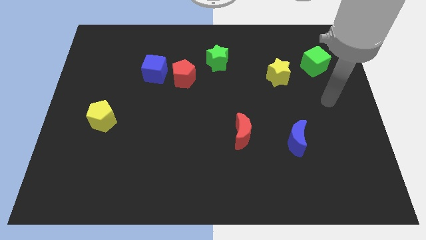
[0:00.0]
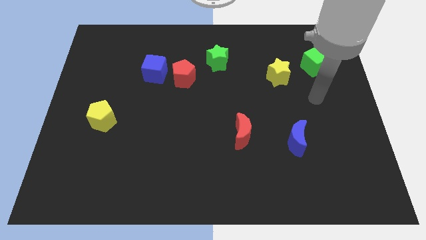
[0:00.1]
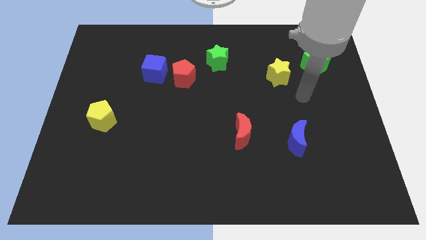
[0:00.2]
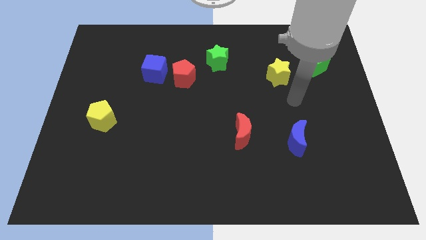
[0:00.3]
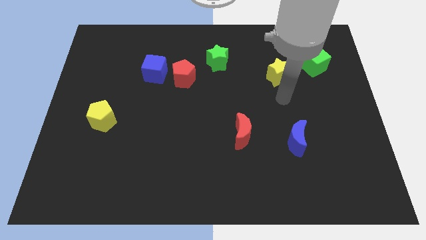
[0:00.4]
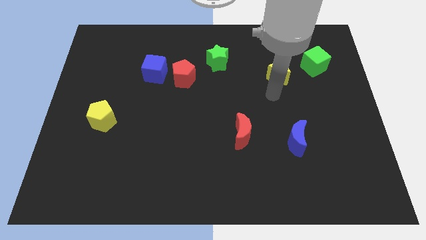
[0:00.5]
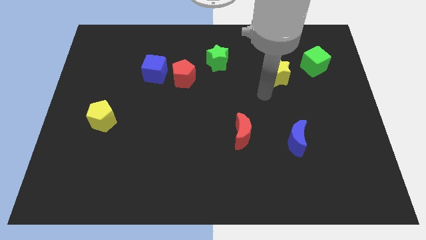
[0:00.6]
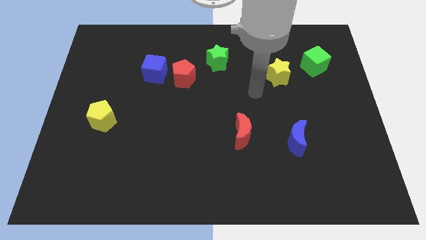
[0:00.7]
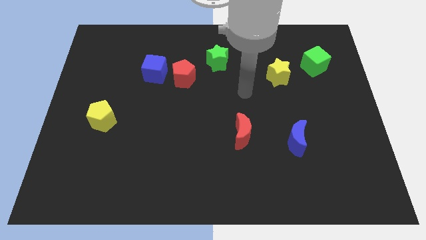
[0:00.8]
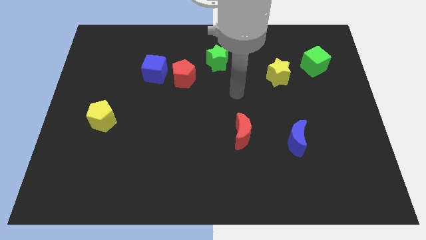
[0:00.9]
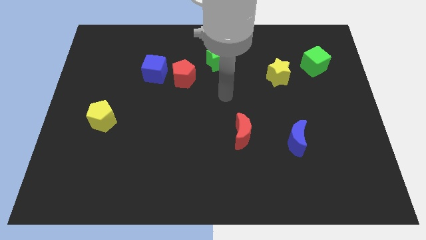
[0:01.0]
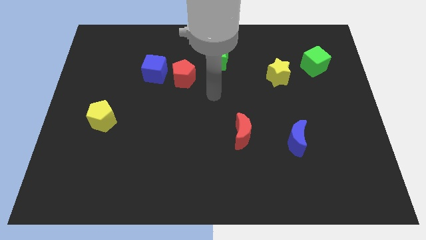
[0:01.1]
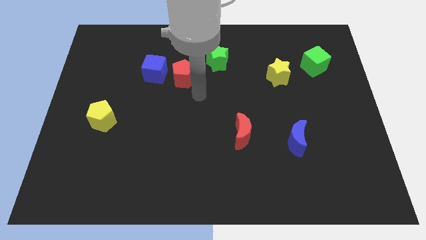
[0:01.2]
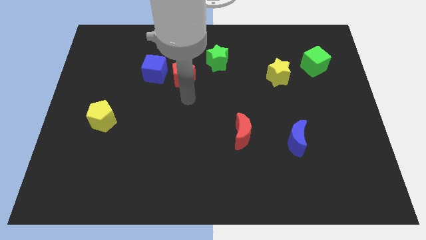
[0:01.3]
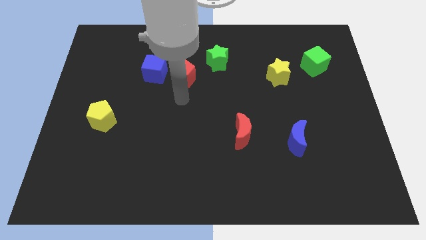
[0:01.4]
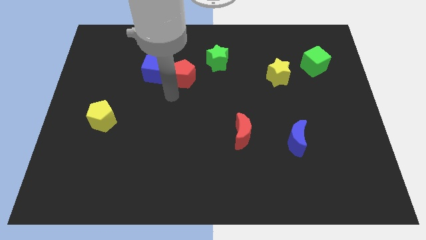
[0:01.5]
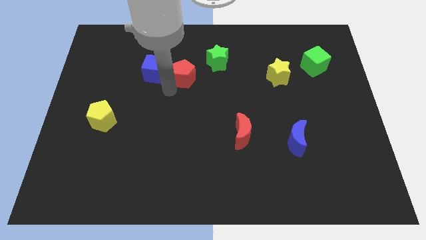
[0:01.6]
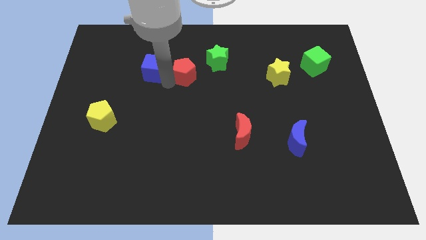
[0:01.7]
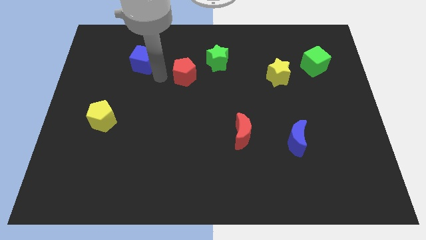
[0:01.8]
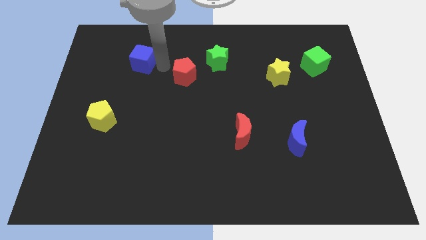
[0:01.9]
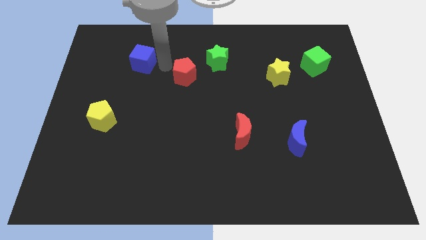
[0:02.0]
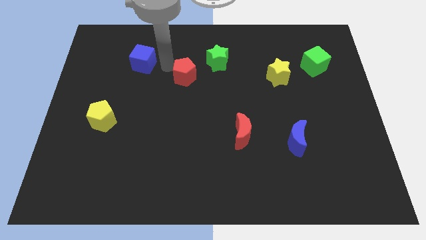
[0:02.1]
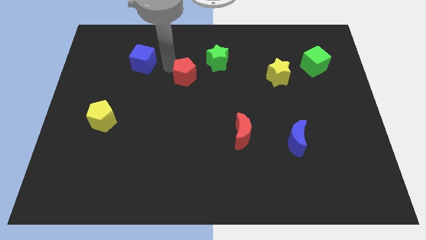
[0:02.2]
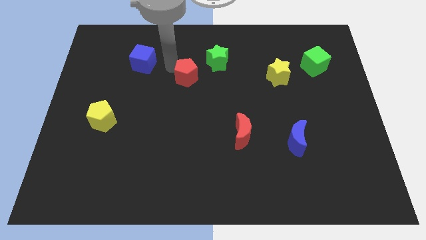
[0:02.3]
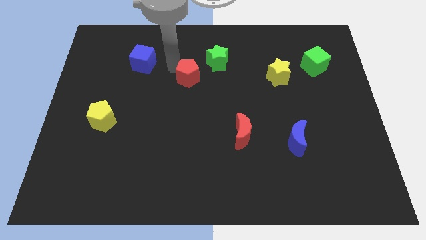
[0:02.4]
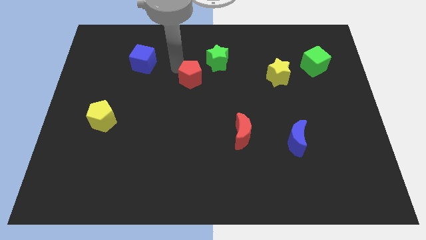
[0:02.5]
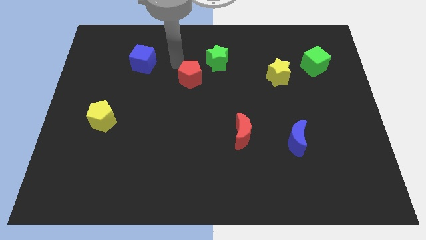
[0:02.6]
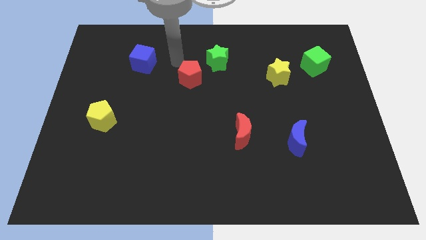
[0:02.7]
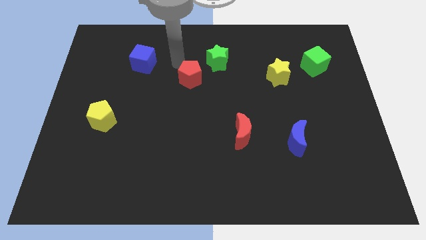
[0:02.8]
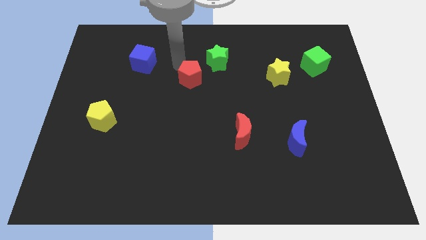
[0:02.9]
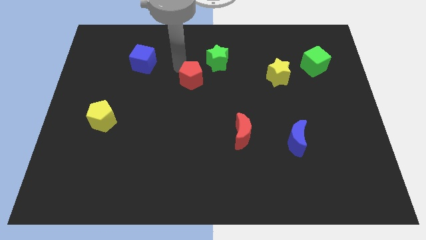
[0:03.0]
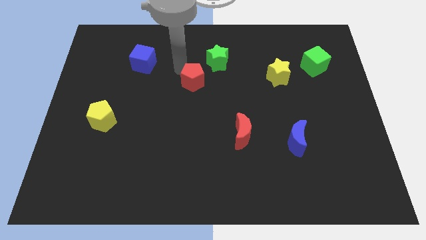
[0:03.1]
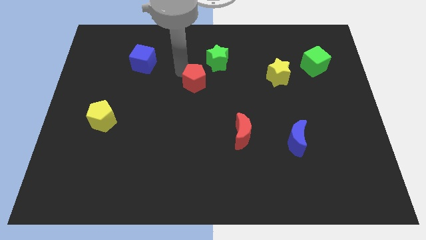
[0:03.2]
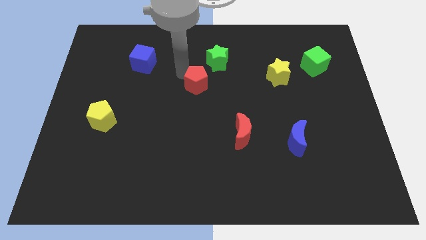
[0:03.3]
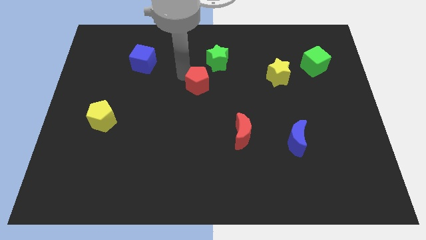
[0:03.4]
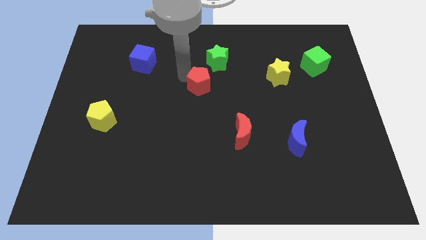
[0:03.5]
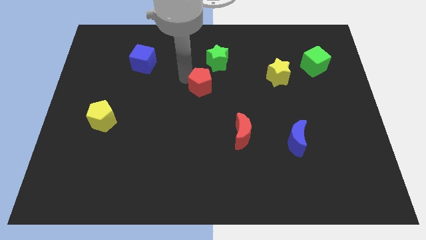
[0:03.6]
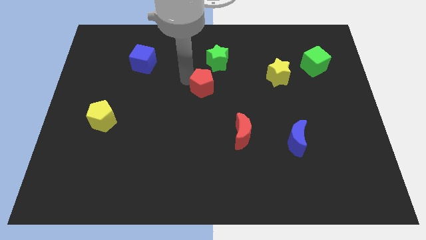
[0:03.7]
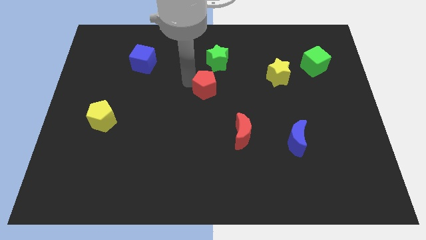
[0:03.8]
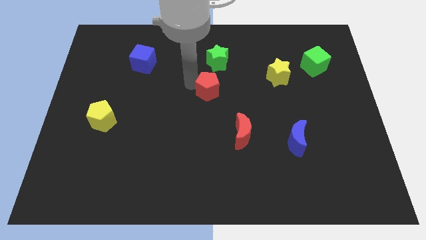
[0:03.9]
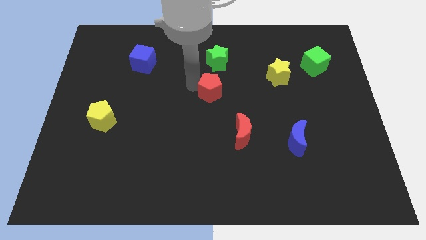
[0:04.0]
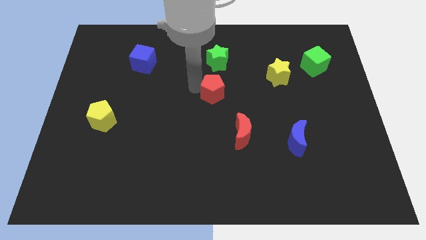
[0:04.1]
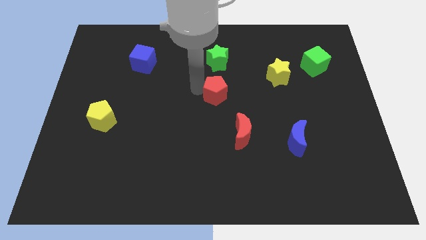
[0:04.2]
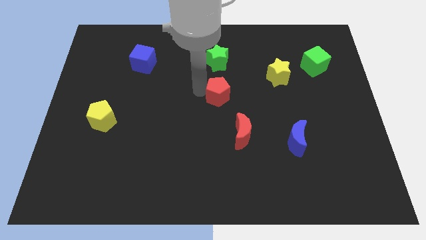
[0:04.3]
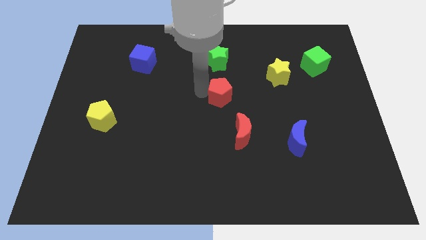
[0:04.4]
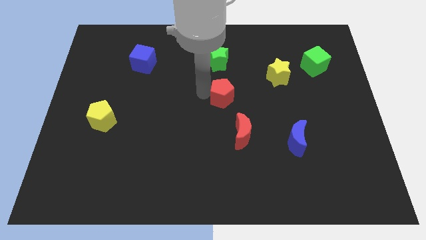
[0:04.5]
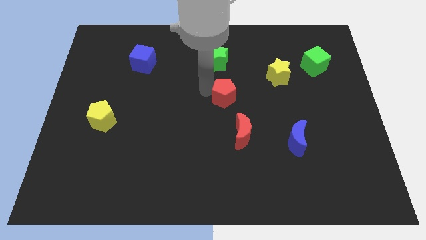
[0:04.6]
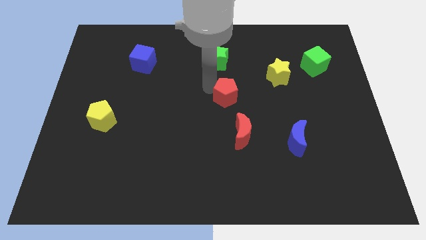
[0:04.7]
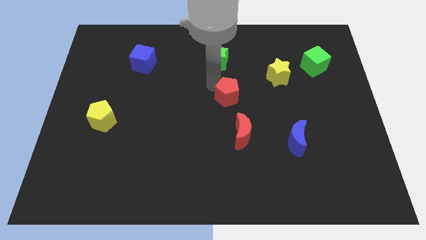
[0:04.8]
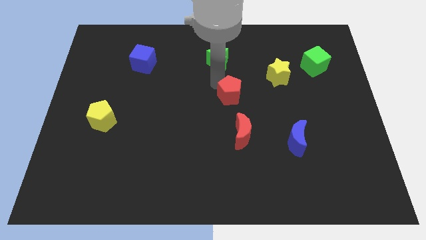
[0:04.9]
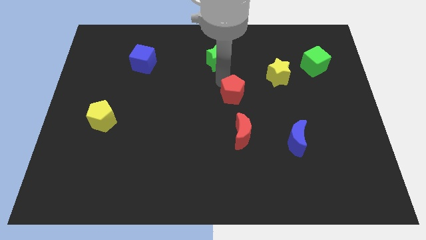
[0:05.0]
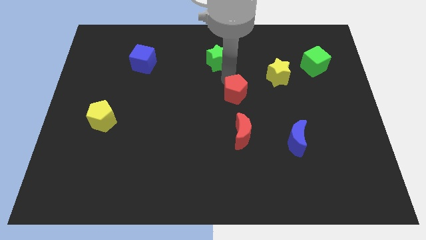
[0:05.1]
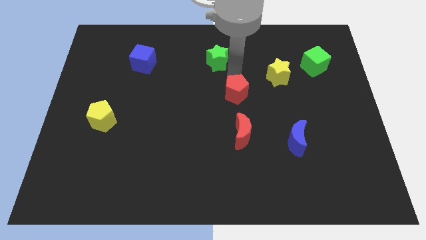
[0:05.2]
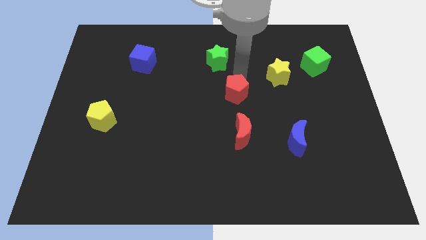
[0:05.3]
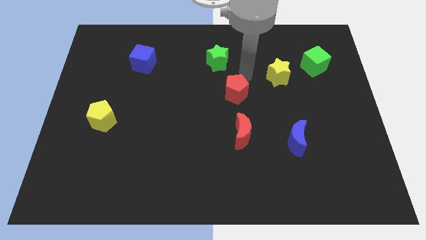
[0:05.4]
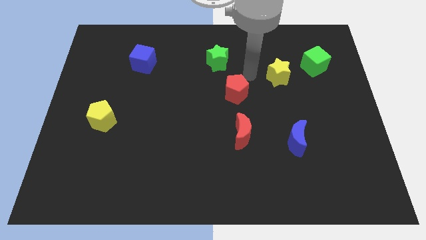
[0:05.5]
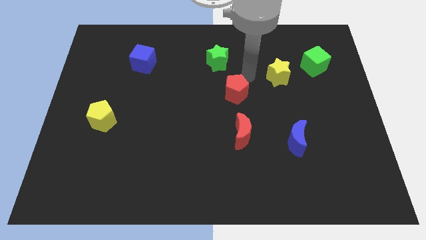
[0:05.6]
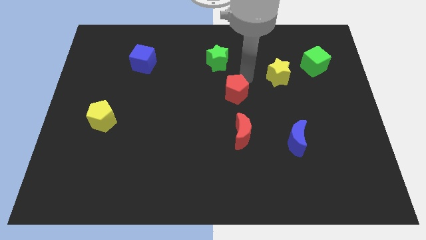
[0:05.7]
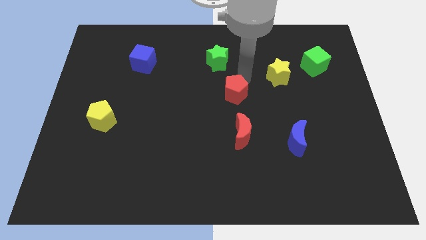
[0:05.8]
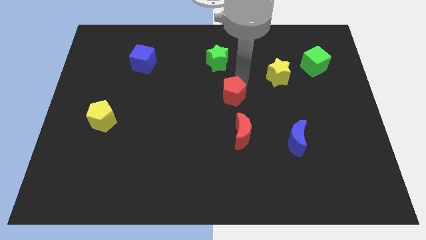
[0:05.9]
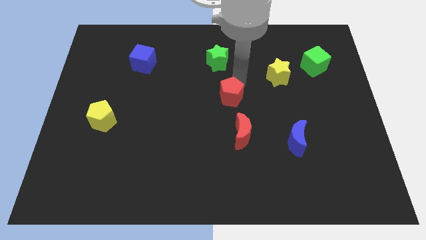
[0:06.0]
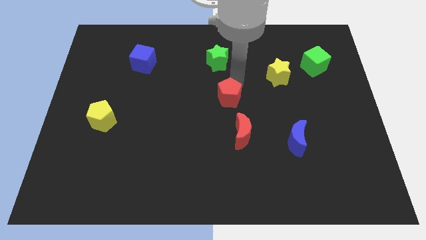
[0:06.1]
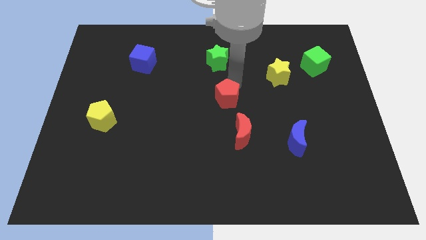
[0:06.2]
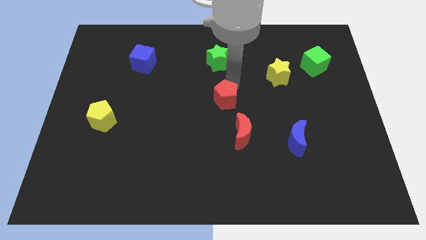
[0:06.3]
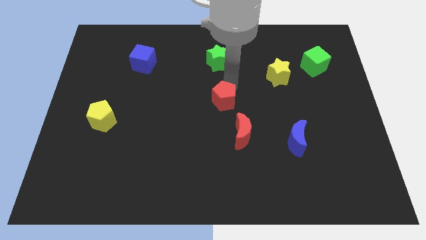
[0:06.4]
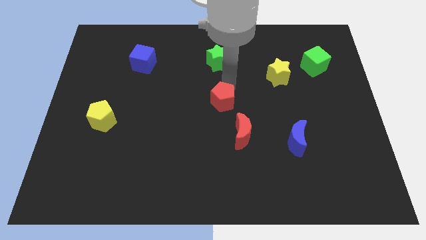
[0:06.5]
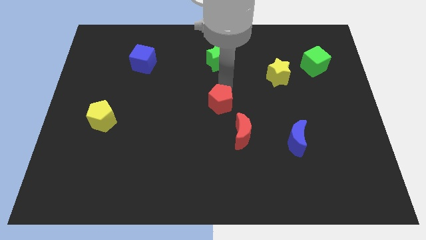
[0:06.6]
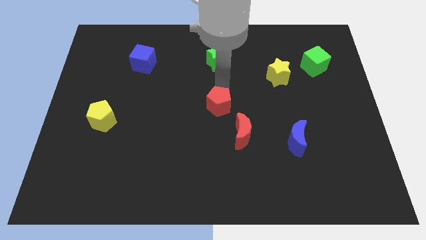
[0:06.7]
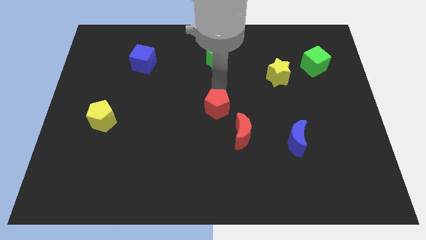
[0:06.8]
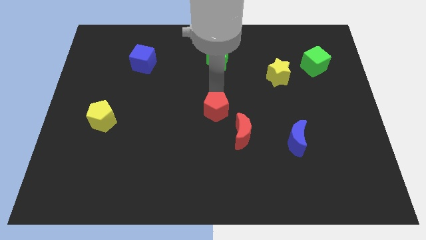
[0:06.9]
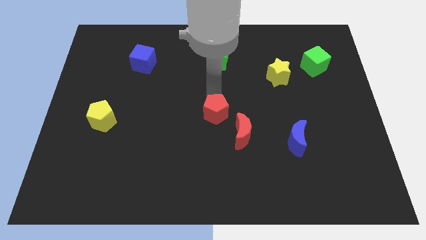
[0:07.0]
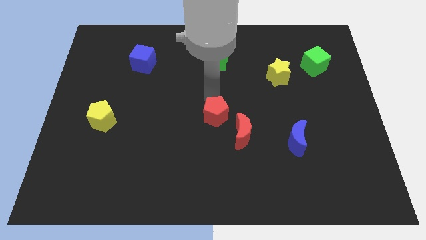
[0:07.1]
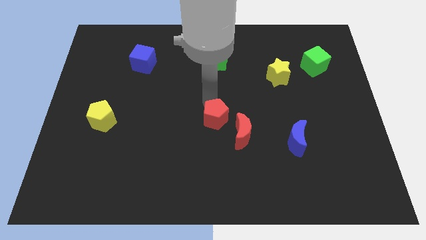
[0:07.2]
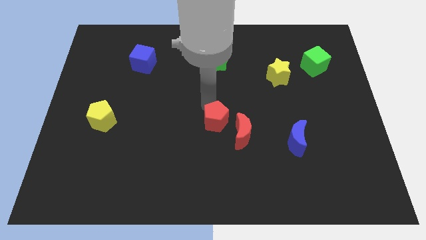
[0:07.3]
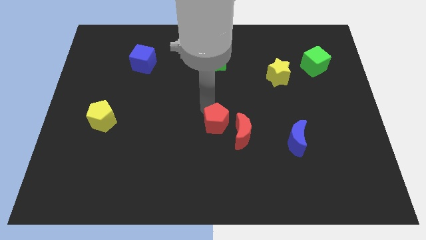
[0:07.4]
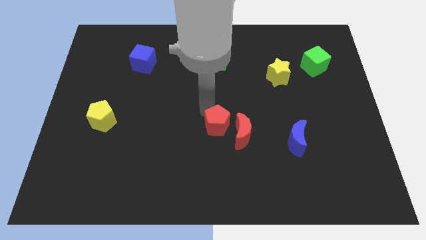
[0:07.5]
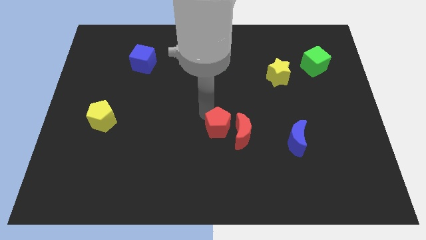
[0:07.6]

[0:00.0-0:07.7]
put the red pentagon to the red moon

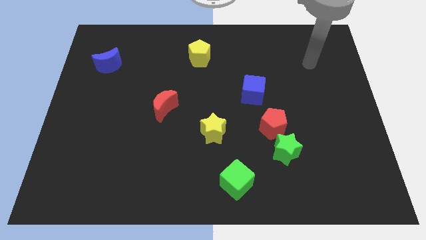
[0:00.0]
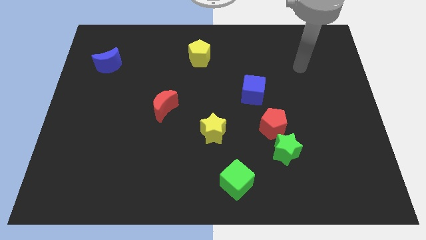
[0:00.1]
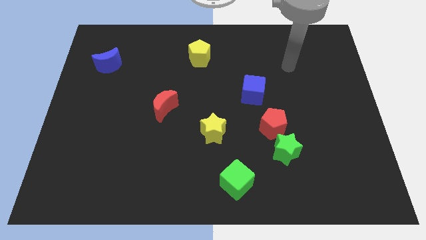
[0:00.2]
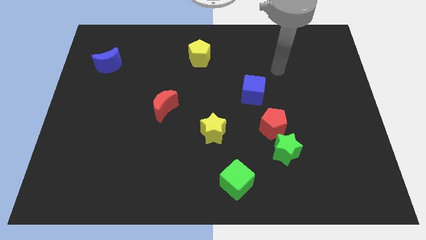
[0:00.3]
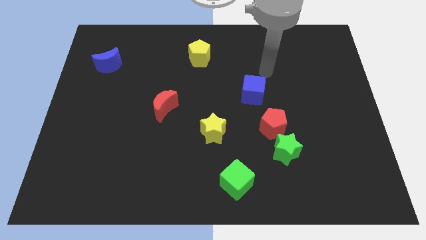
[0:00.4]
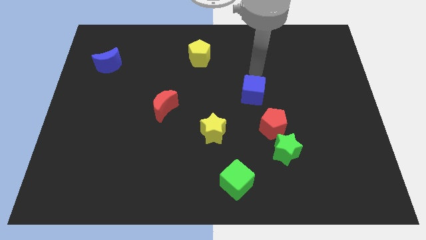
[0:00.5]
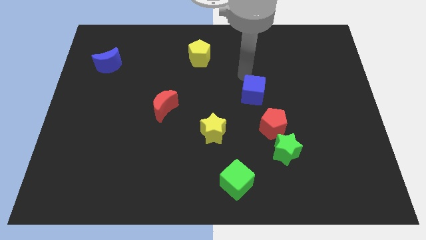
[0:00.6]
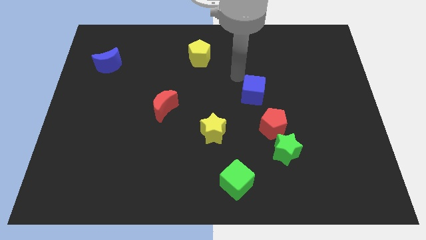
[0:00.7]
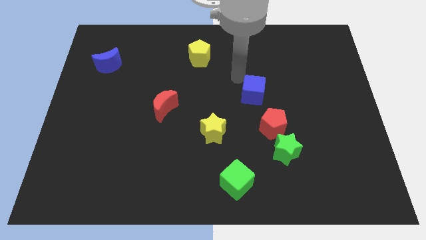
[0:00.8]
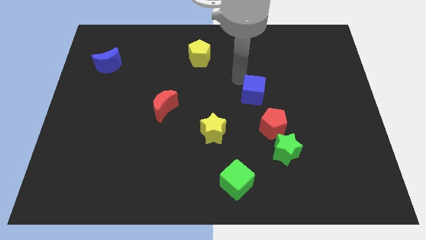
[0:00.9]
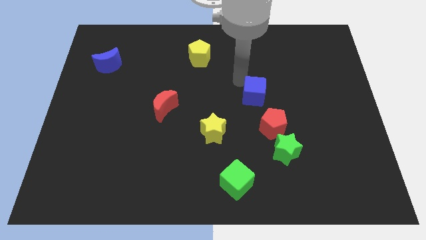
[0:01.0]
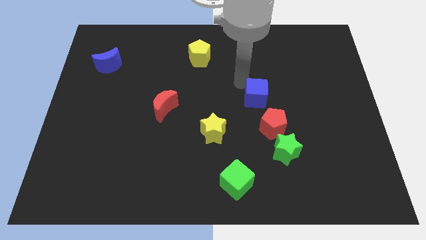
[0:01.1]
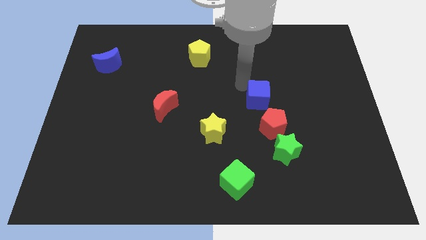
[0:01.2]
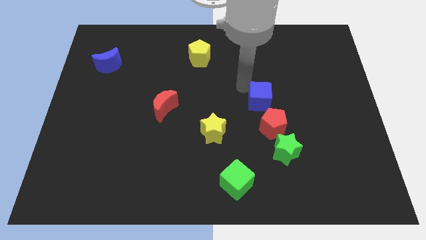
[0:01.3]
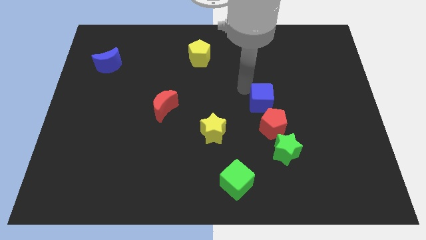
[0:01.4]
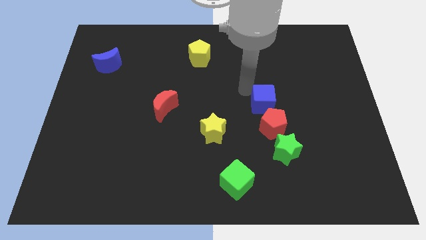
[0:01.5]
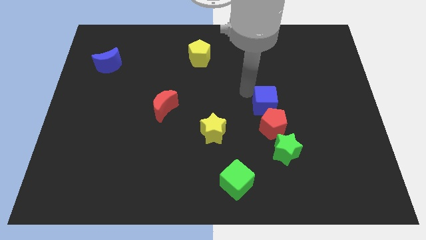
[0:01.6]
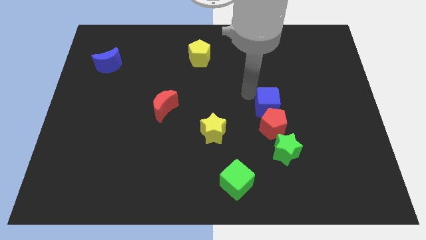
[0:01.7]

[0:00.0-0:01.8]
slide the blue cube towards the red pentagon
